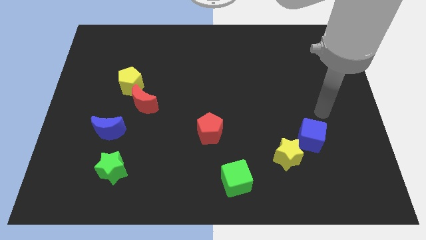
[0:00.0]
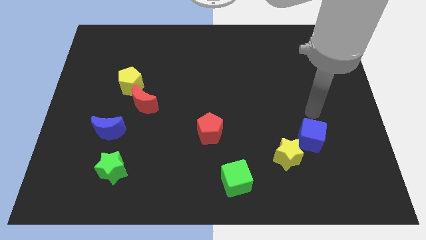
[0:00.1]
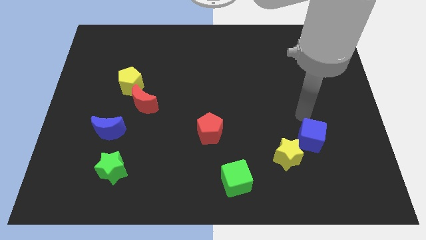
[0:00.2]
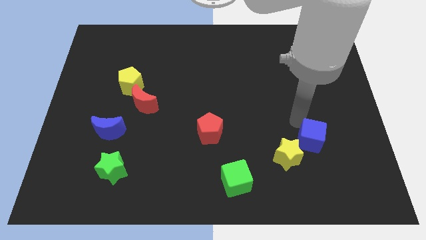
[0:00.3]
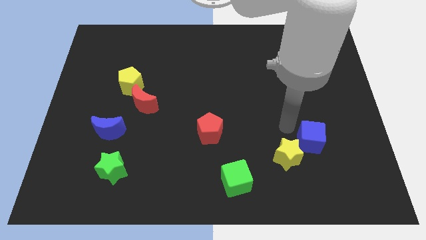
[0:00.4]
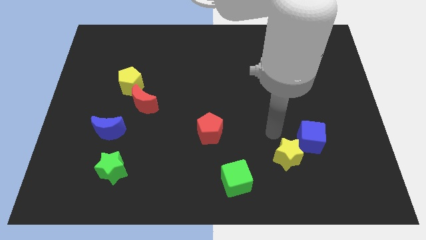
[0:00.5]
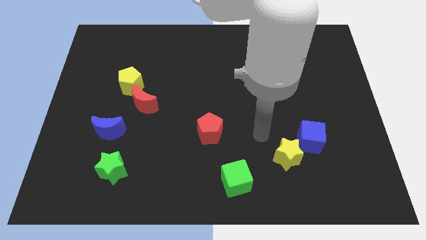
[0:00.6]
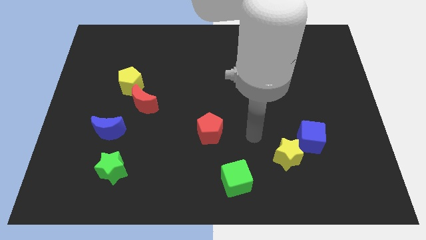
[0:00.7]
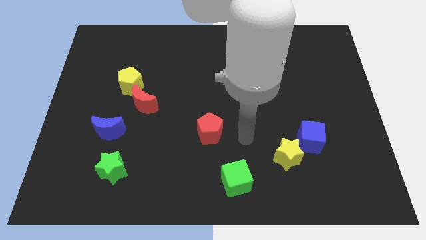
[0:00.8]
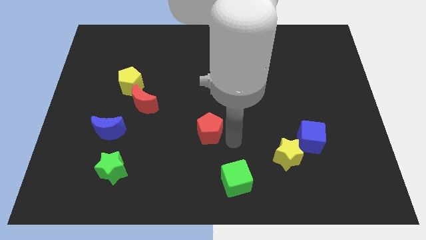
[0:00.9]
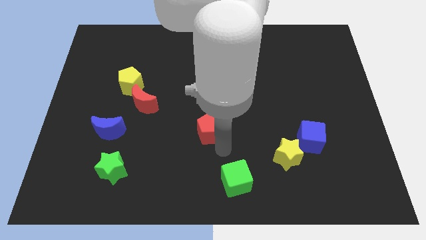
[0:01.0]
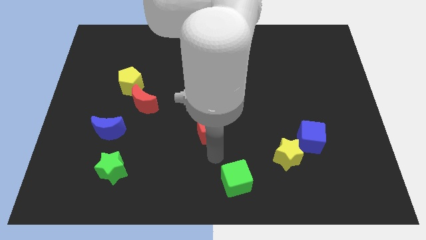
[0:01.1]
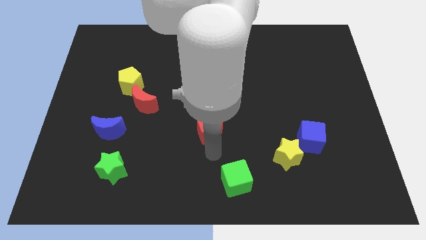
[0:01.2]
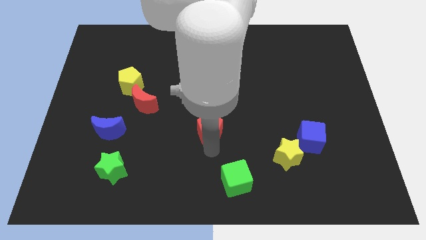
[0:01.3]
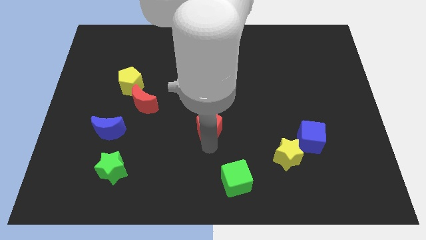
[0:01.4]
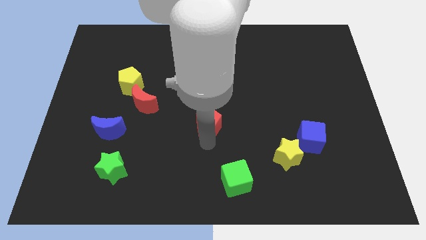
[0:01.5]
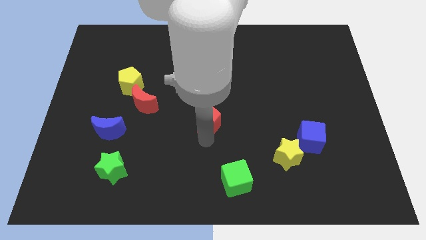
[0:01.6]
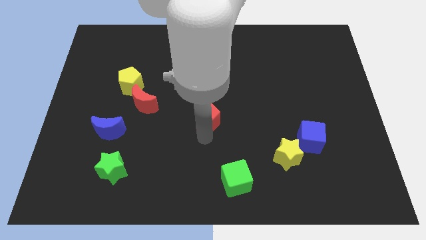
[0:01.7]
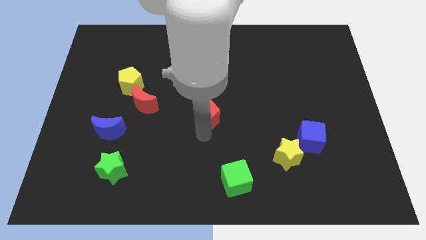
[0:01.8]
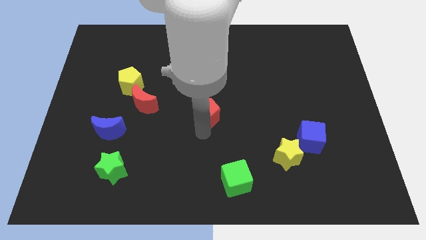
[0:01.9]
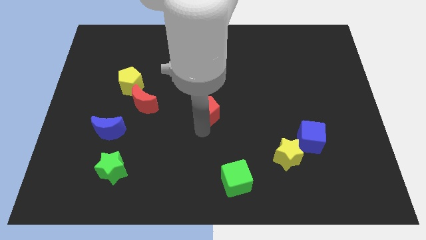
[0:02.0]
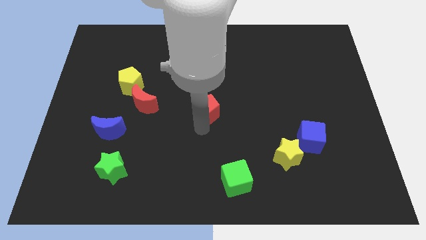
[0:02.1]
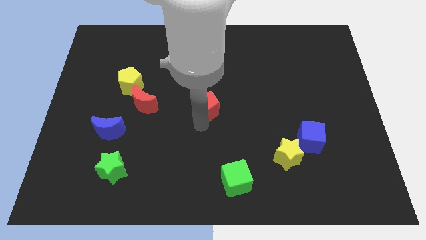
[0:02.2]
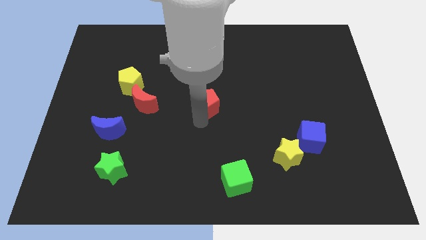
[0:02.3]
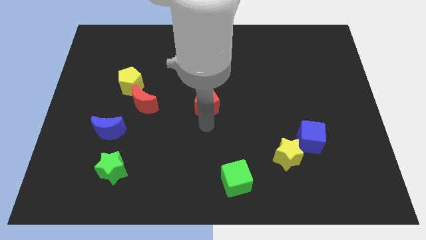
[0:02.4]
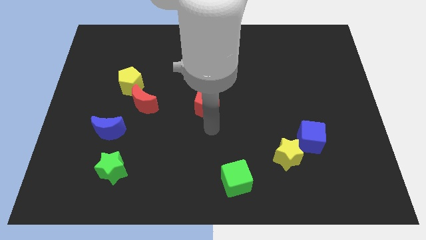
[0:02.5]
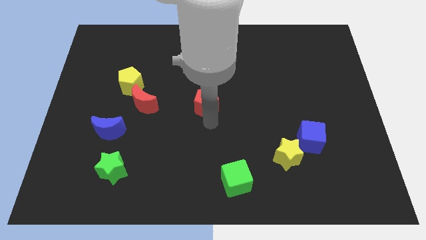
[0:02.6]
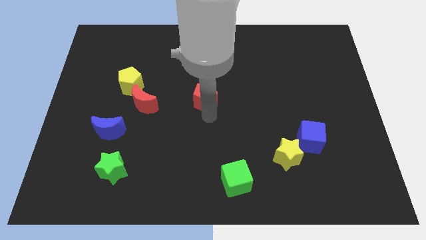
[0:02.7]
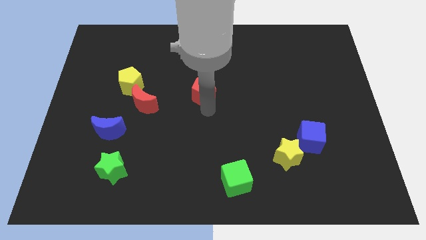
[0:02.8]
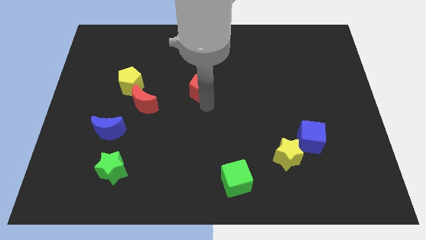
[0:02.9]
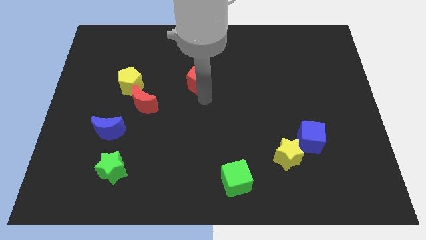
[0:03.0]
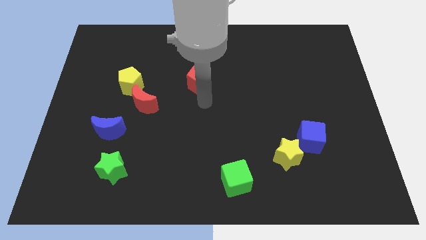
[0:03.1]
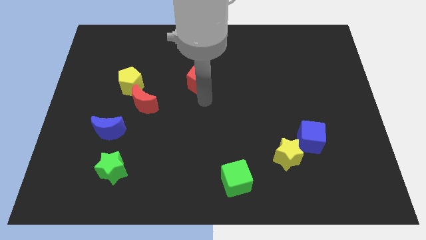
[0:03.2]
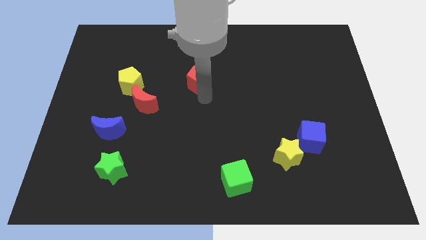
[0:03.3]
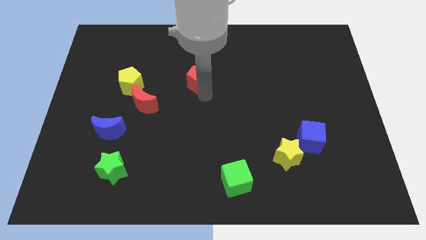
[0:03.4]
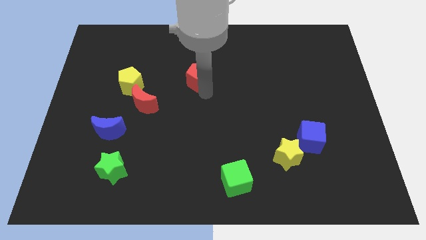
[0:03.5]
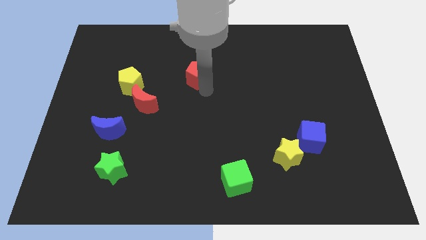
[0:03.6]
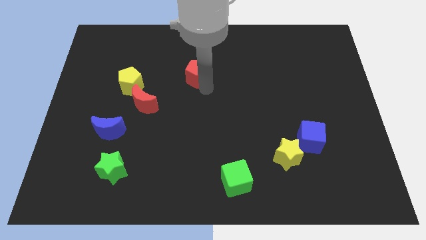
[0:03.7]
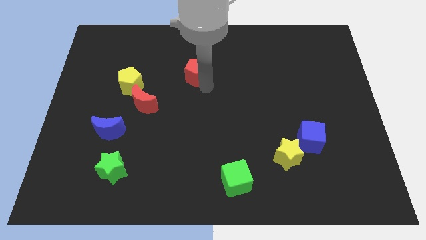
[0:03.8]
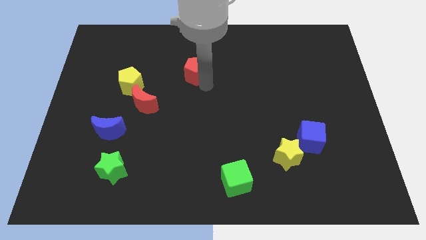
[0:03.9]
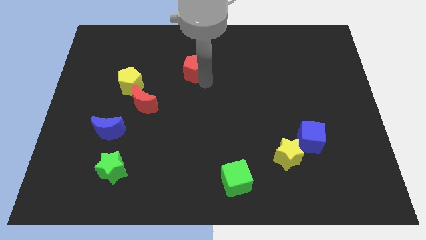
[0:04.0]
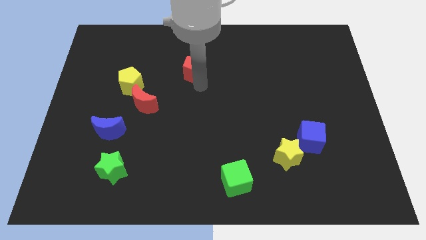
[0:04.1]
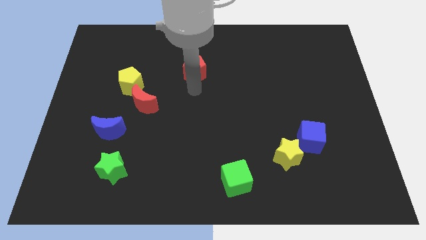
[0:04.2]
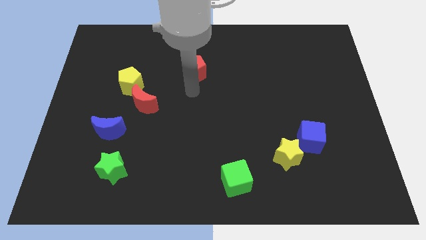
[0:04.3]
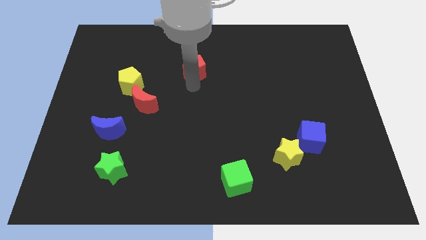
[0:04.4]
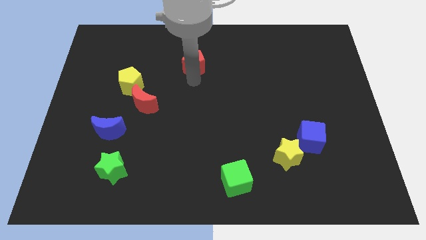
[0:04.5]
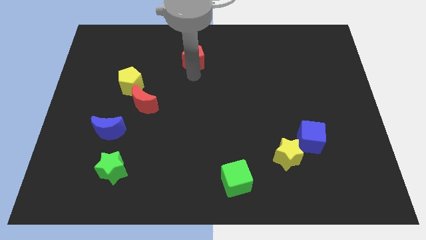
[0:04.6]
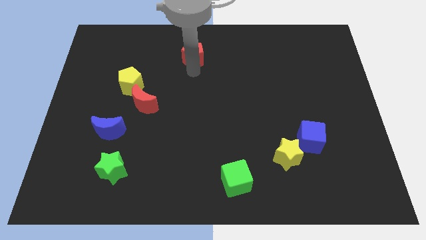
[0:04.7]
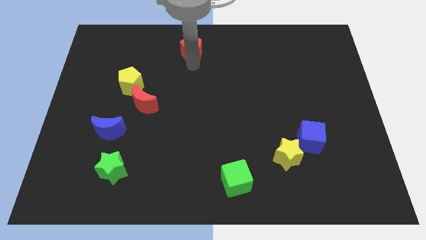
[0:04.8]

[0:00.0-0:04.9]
put the red pentagon to the top
